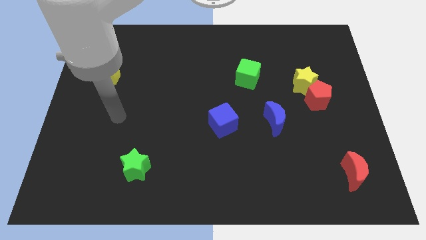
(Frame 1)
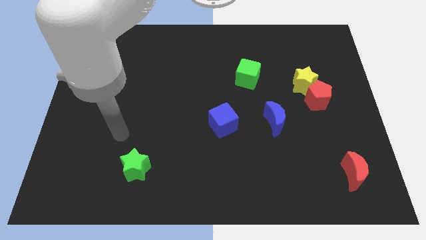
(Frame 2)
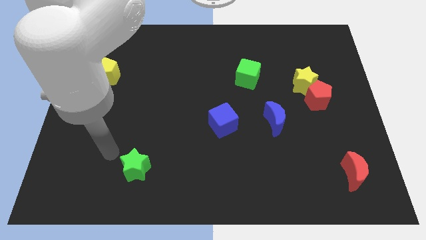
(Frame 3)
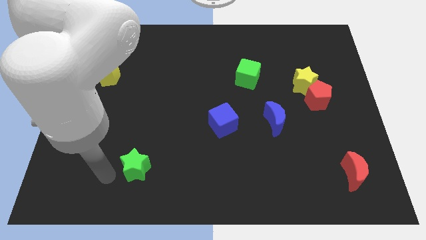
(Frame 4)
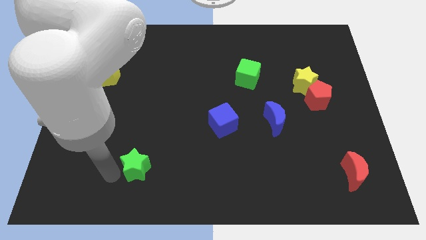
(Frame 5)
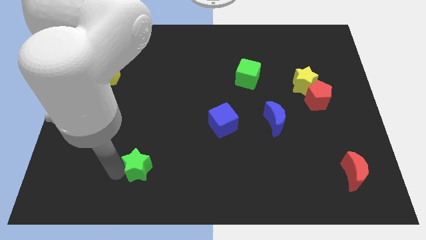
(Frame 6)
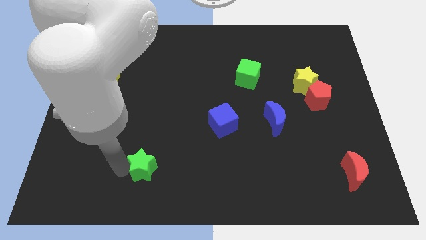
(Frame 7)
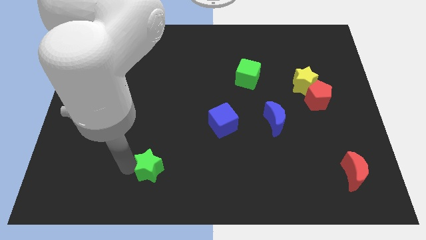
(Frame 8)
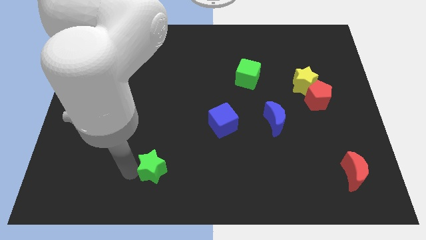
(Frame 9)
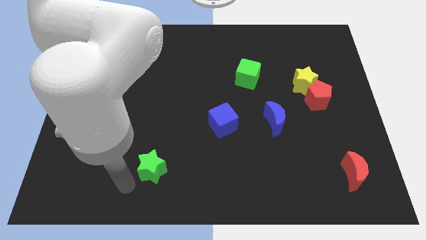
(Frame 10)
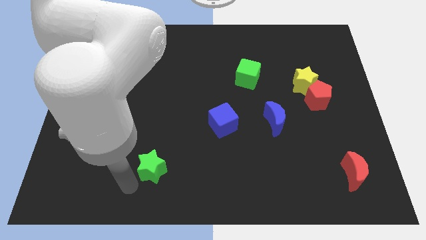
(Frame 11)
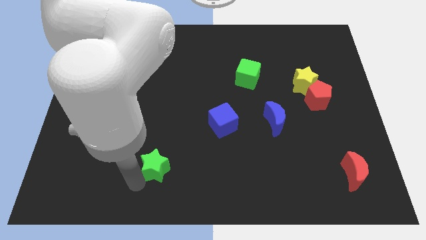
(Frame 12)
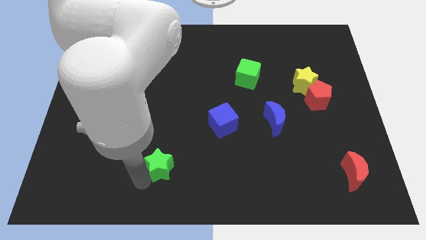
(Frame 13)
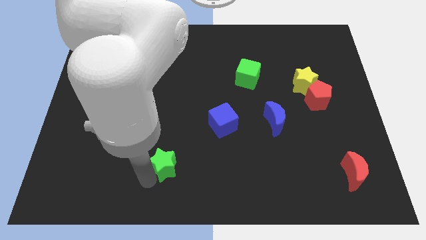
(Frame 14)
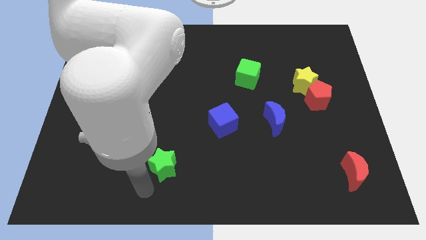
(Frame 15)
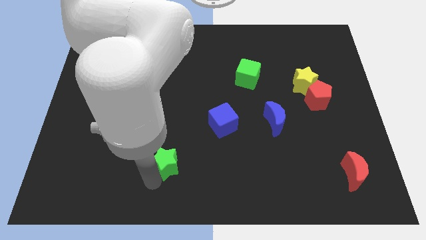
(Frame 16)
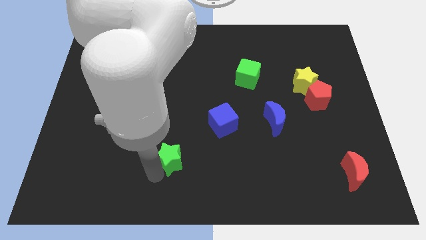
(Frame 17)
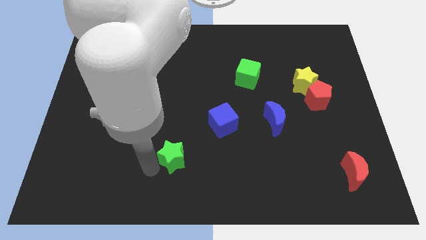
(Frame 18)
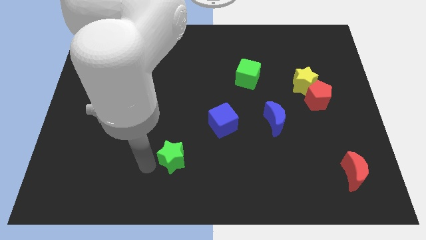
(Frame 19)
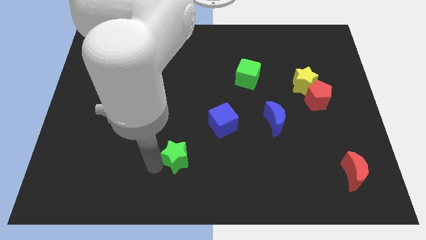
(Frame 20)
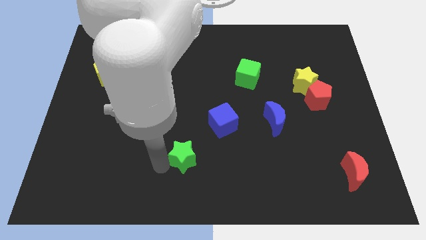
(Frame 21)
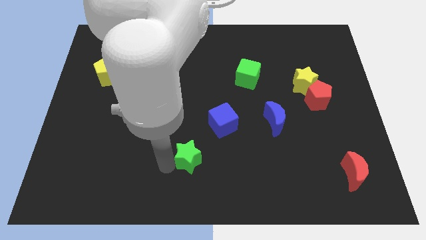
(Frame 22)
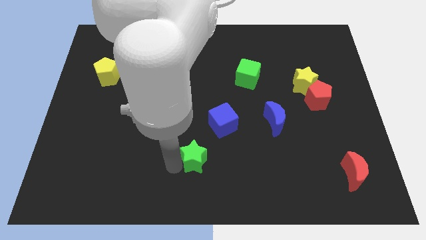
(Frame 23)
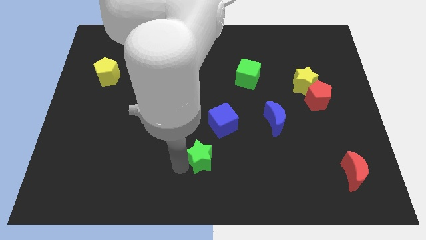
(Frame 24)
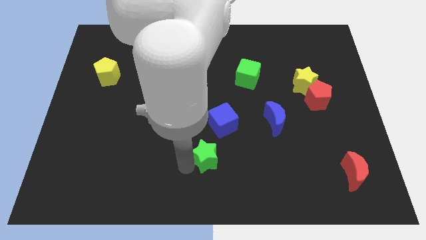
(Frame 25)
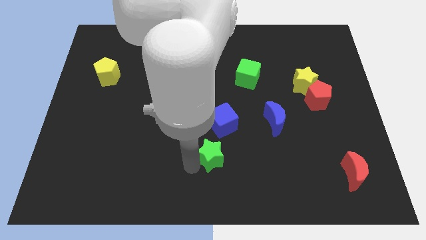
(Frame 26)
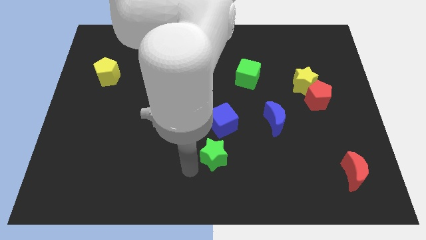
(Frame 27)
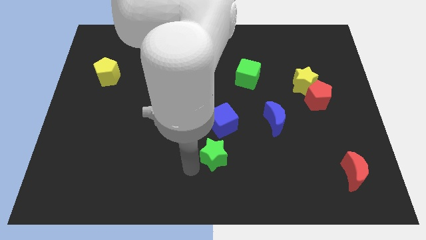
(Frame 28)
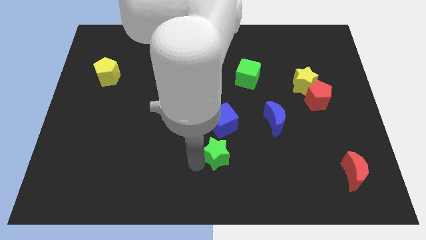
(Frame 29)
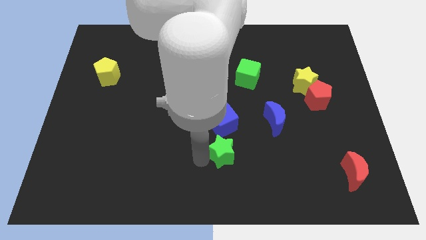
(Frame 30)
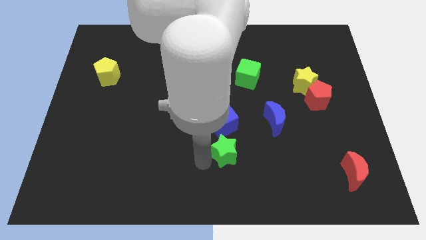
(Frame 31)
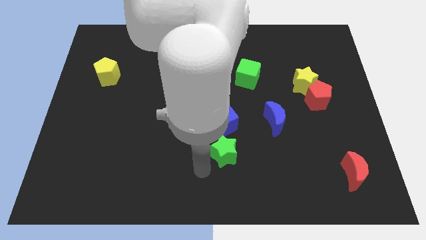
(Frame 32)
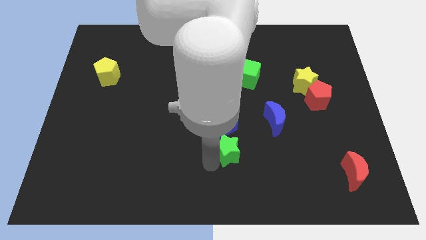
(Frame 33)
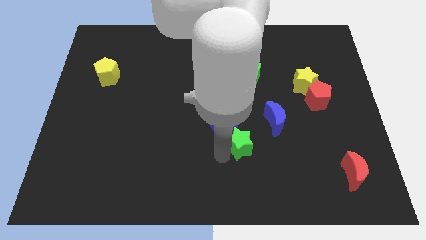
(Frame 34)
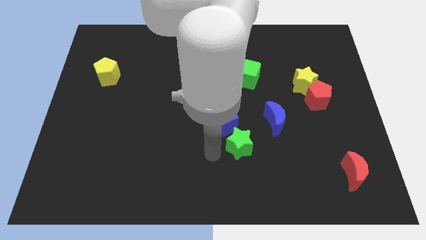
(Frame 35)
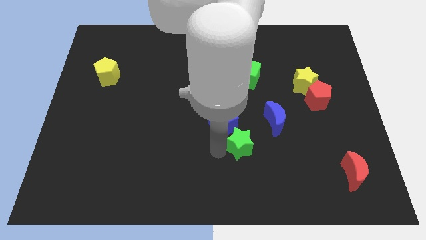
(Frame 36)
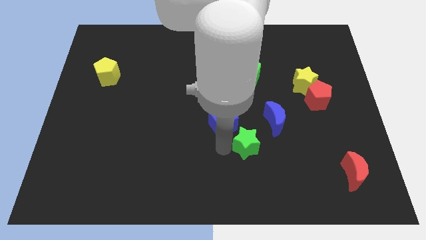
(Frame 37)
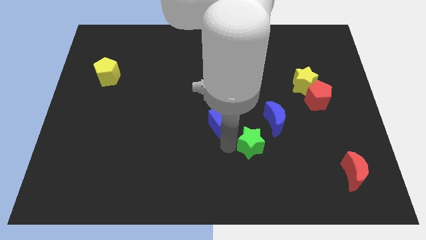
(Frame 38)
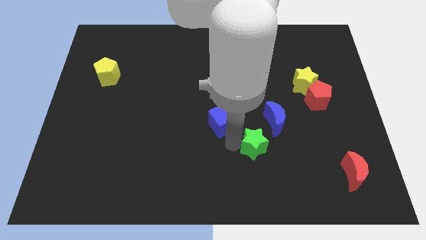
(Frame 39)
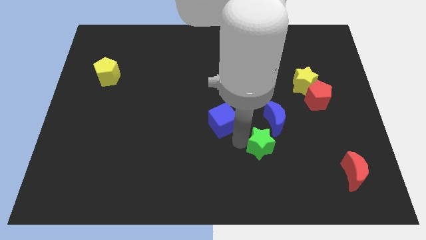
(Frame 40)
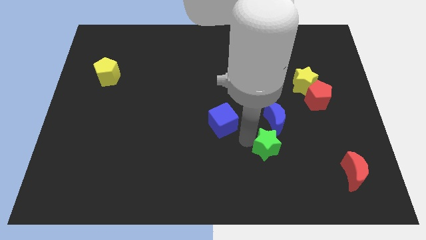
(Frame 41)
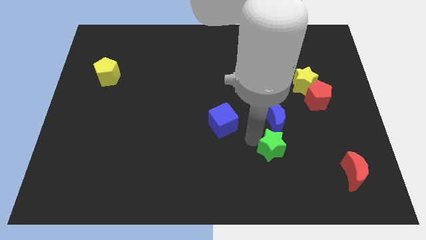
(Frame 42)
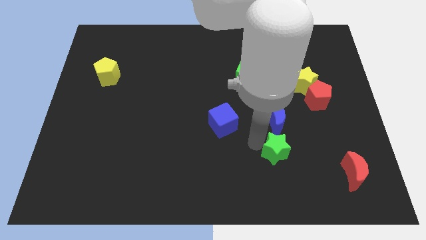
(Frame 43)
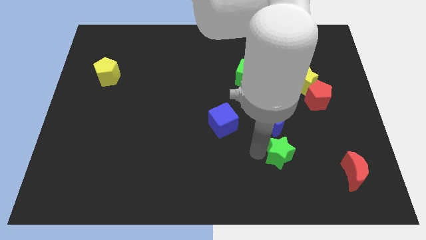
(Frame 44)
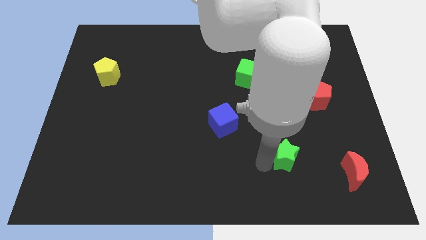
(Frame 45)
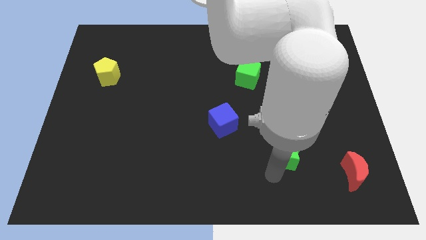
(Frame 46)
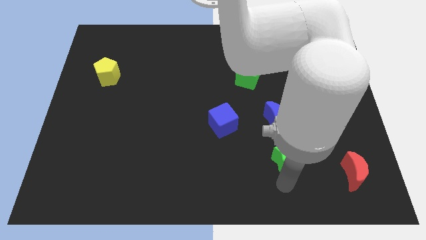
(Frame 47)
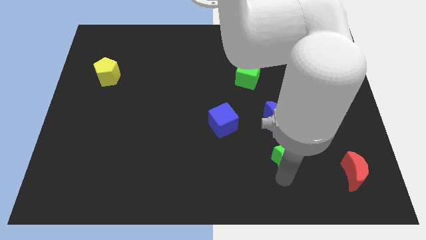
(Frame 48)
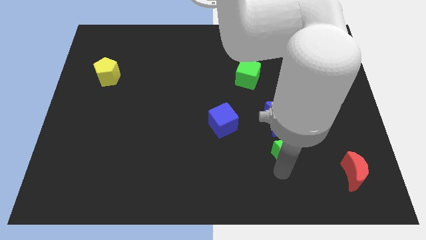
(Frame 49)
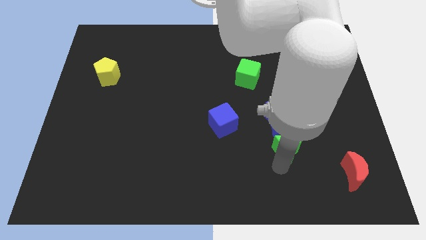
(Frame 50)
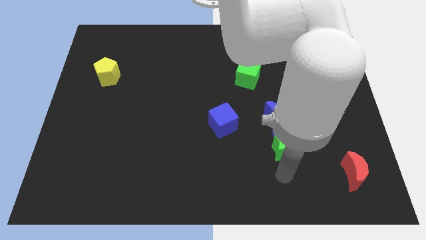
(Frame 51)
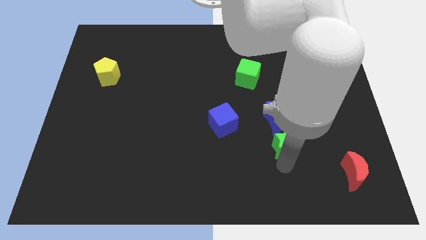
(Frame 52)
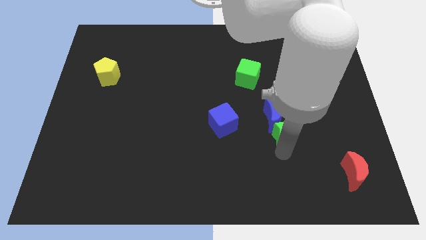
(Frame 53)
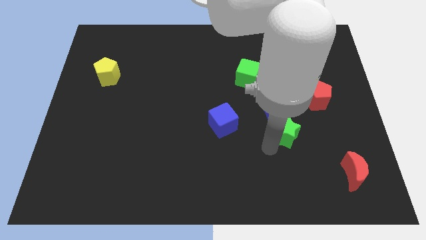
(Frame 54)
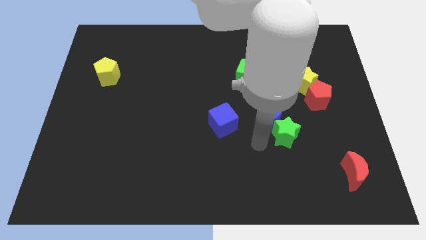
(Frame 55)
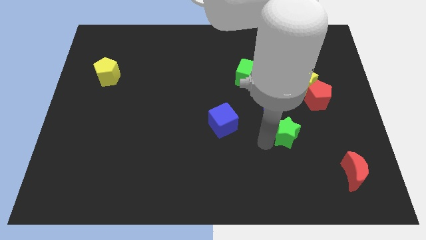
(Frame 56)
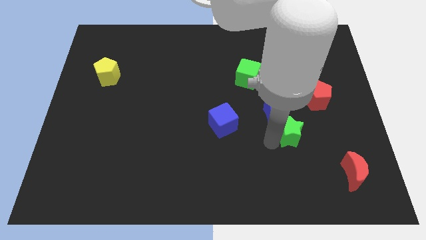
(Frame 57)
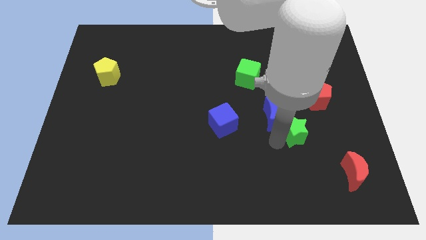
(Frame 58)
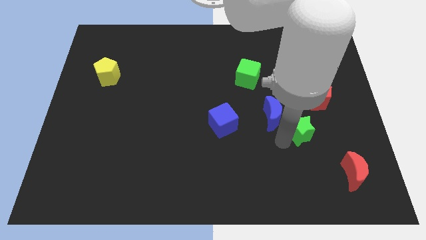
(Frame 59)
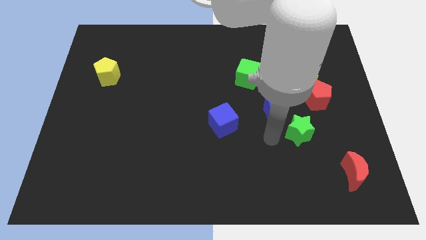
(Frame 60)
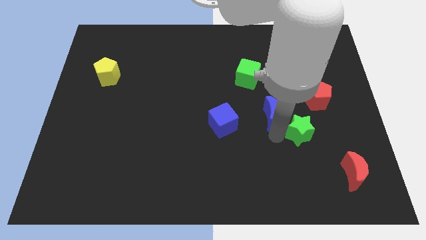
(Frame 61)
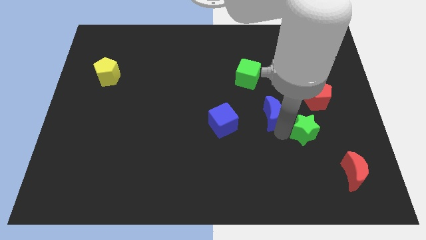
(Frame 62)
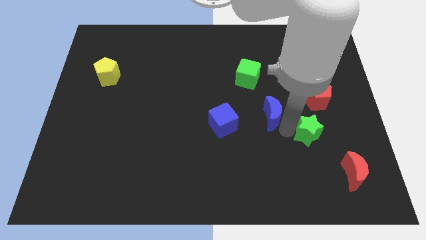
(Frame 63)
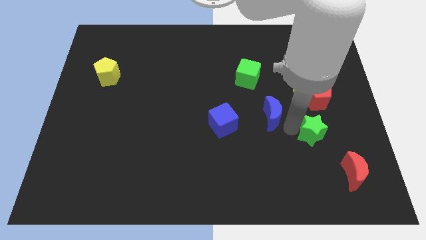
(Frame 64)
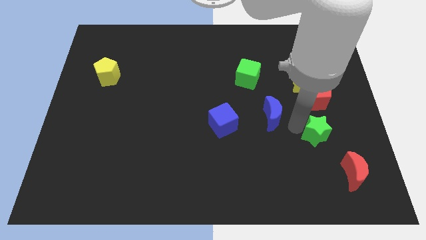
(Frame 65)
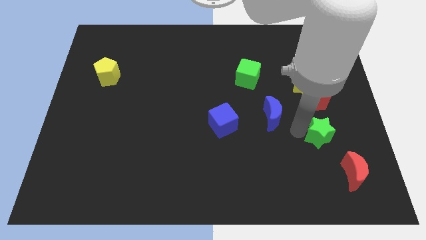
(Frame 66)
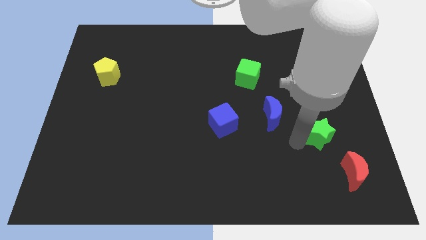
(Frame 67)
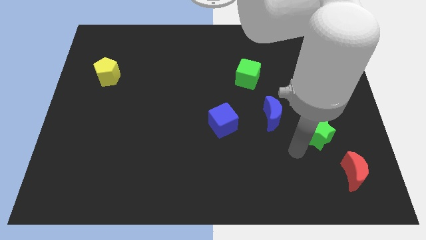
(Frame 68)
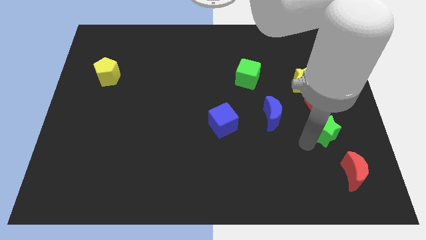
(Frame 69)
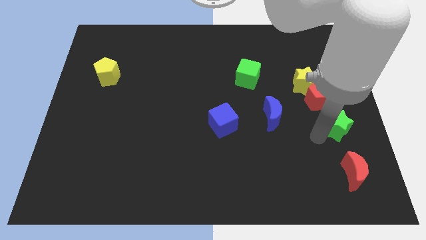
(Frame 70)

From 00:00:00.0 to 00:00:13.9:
slide the green star to the right side
